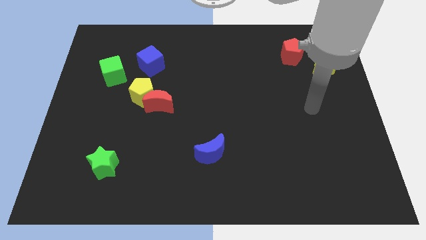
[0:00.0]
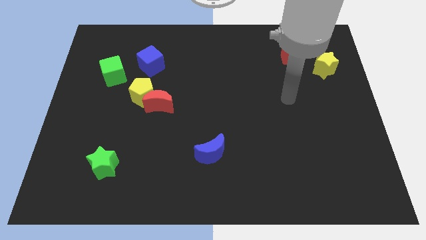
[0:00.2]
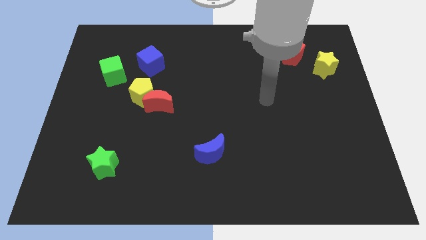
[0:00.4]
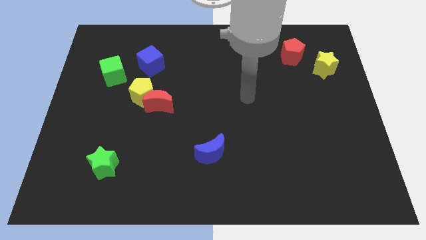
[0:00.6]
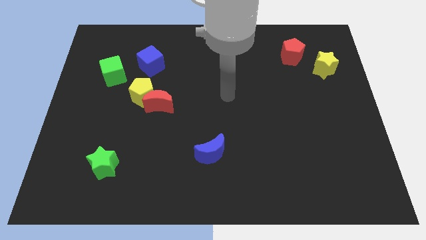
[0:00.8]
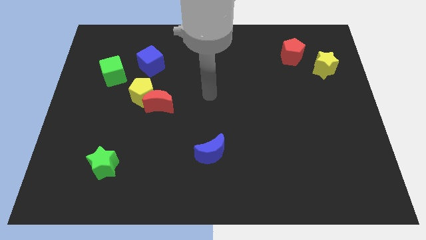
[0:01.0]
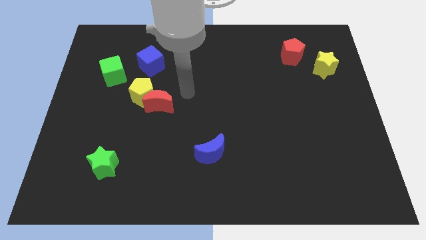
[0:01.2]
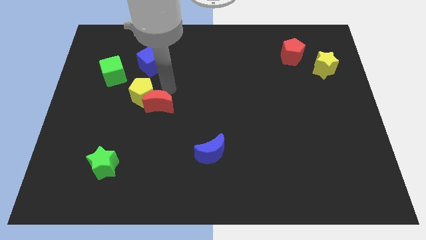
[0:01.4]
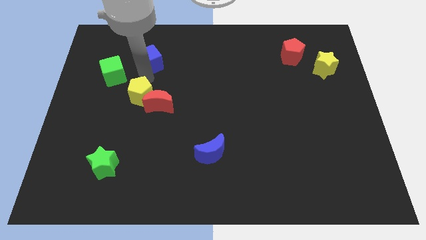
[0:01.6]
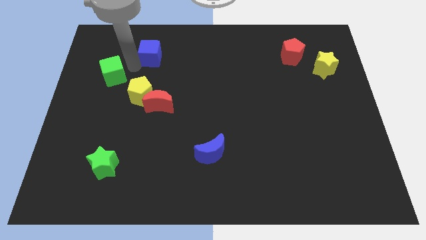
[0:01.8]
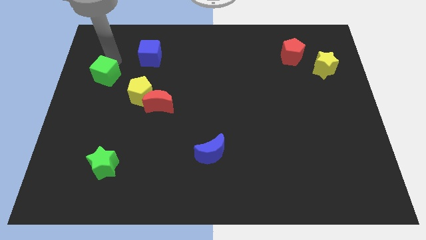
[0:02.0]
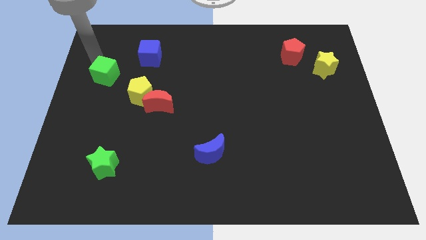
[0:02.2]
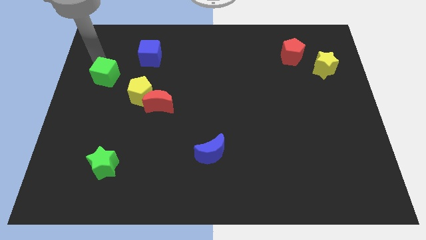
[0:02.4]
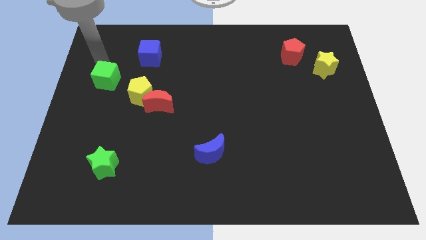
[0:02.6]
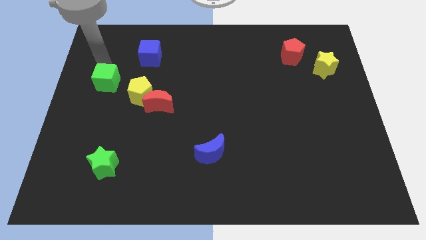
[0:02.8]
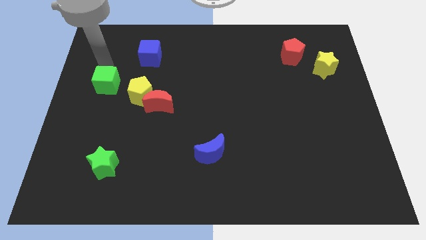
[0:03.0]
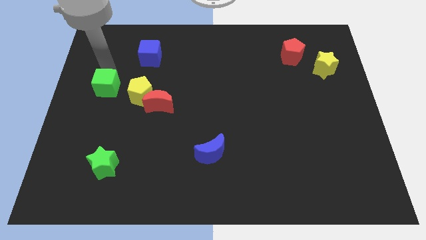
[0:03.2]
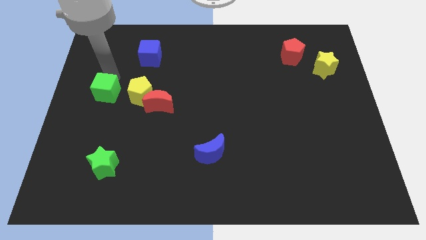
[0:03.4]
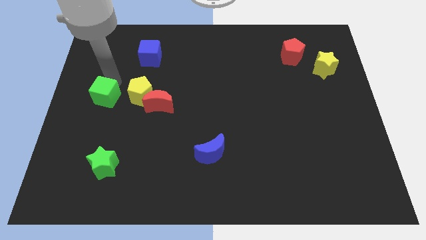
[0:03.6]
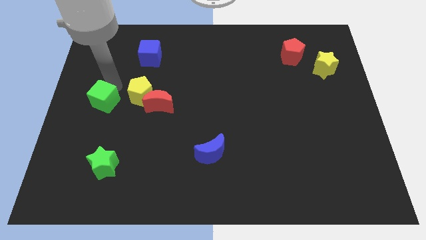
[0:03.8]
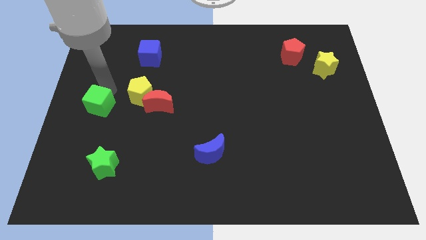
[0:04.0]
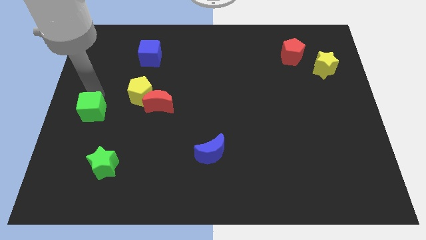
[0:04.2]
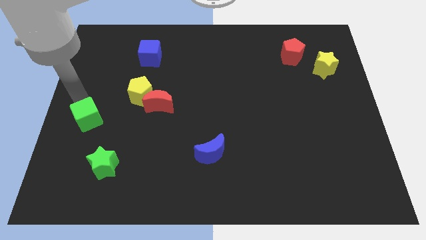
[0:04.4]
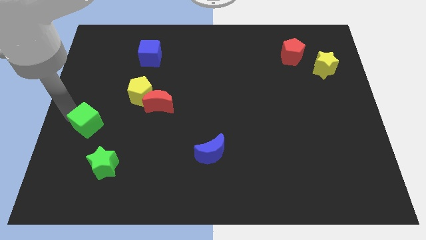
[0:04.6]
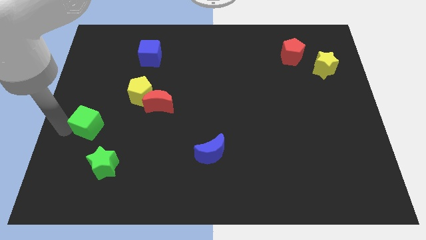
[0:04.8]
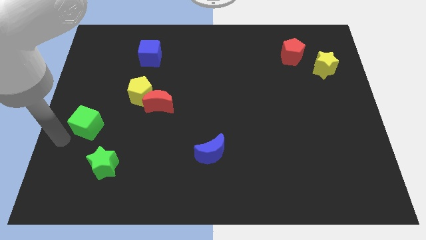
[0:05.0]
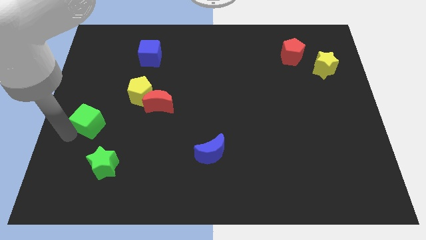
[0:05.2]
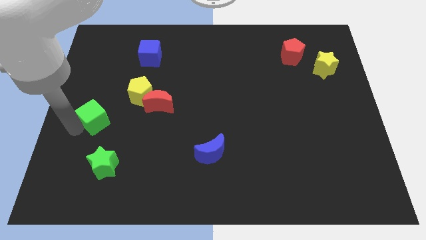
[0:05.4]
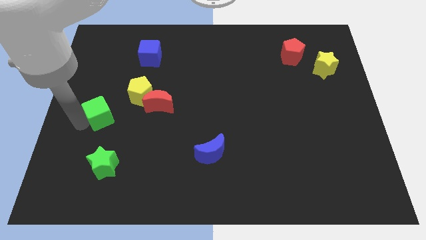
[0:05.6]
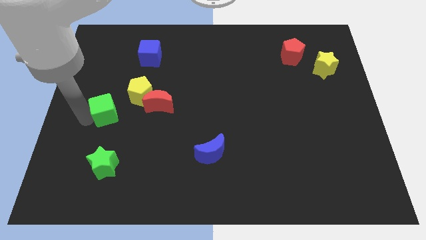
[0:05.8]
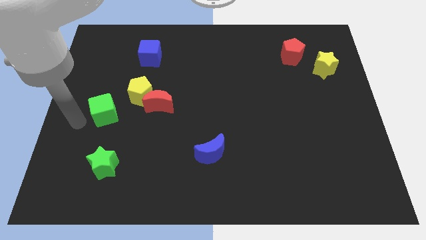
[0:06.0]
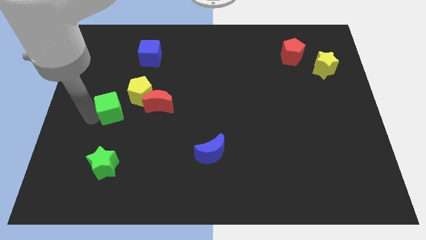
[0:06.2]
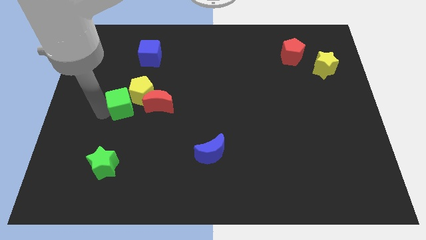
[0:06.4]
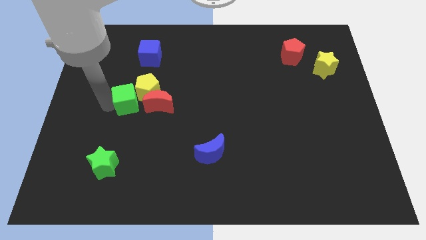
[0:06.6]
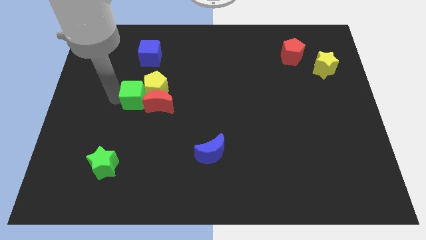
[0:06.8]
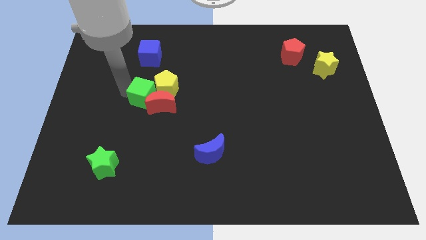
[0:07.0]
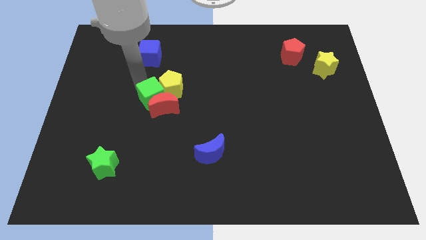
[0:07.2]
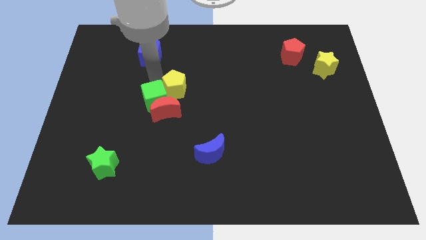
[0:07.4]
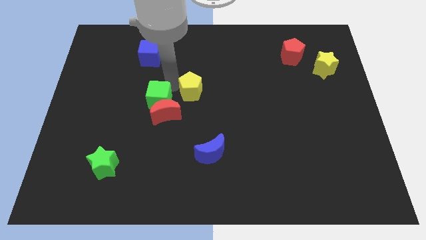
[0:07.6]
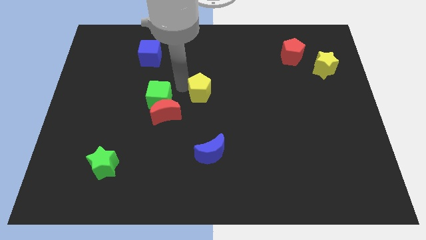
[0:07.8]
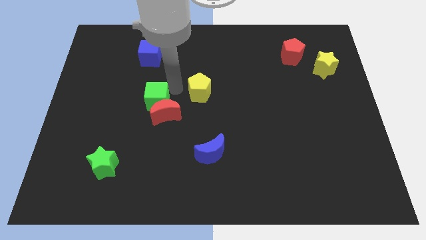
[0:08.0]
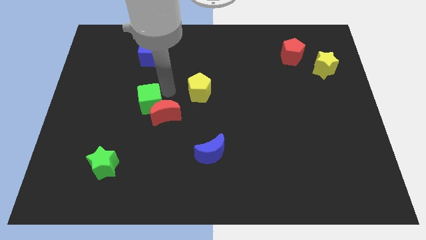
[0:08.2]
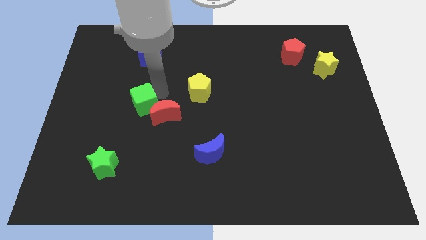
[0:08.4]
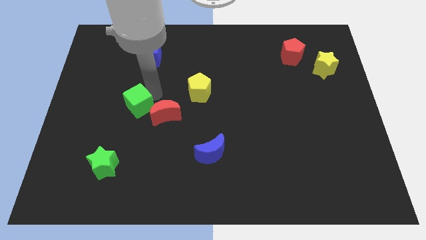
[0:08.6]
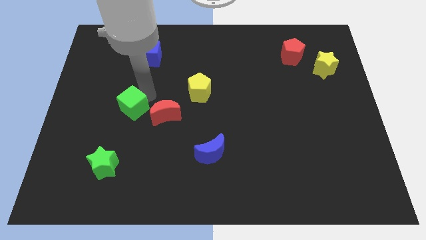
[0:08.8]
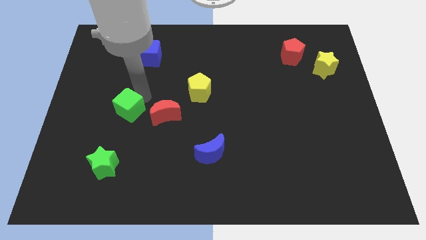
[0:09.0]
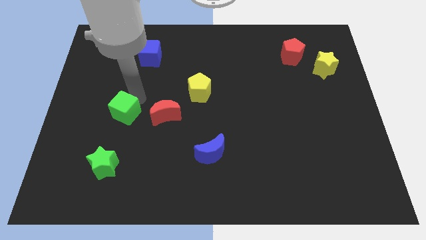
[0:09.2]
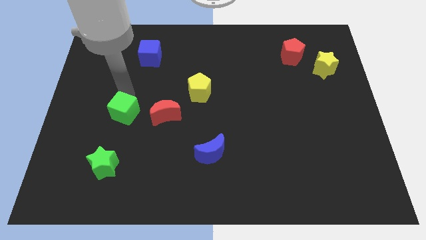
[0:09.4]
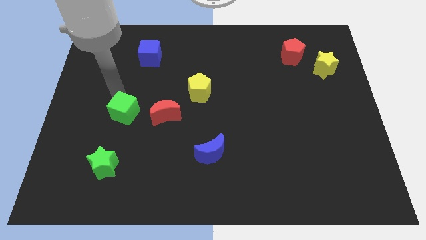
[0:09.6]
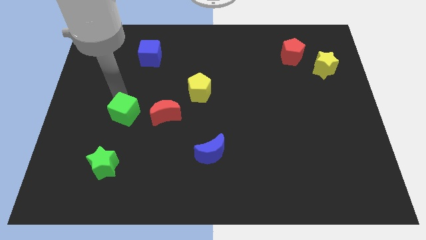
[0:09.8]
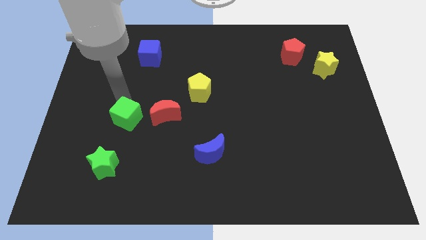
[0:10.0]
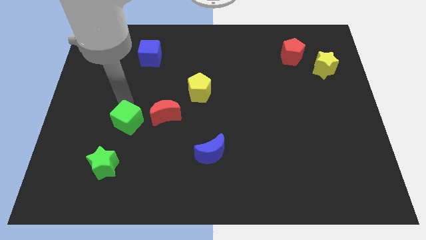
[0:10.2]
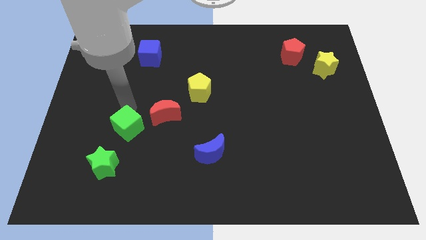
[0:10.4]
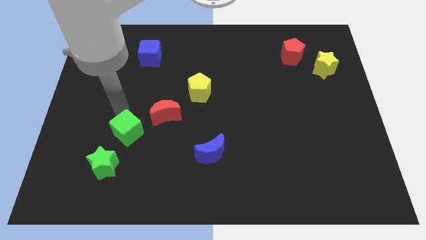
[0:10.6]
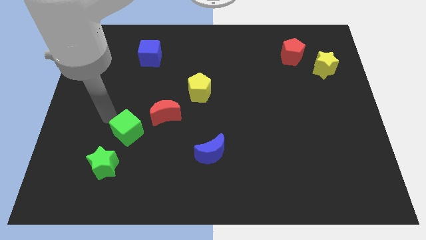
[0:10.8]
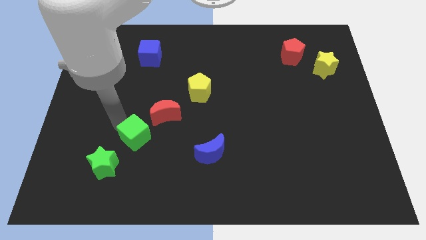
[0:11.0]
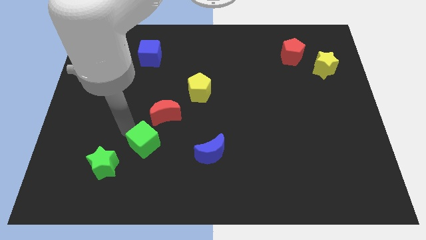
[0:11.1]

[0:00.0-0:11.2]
push the green cube below the red moon

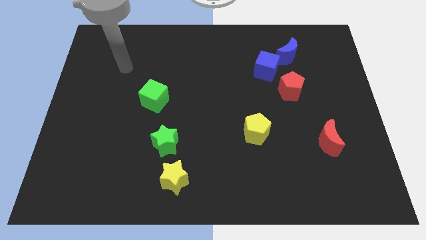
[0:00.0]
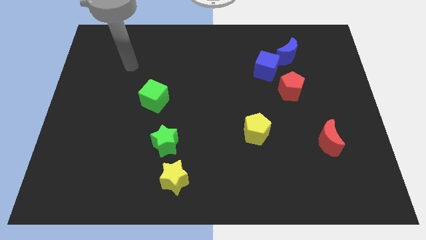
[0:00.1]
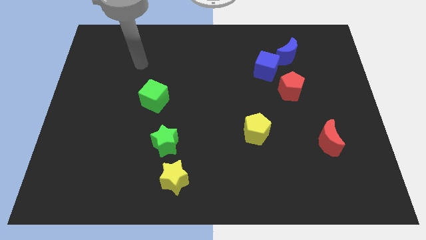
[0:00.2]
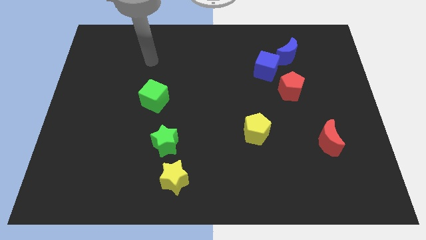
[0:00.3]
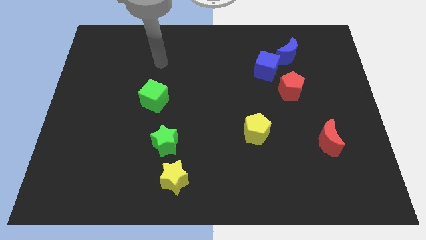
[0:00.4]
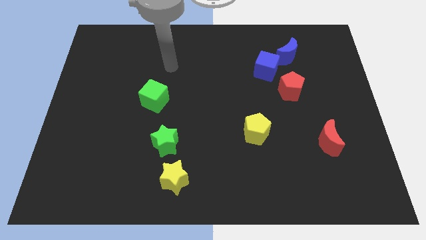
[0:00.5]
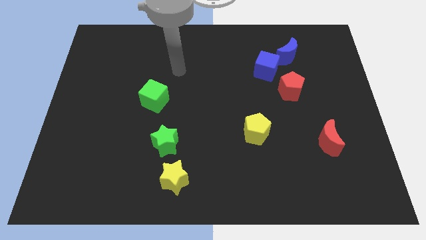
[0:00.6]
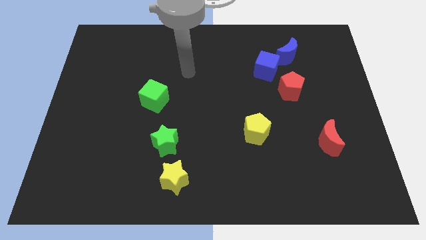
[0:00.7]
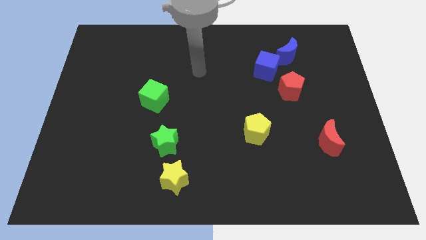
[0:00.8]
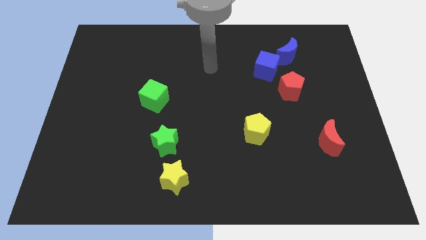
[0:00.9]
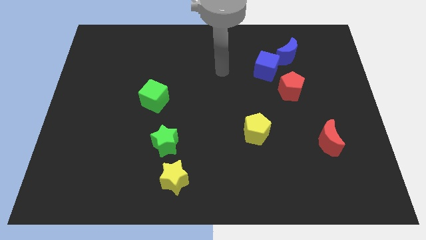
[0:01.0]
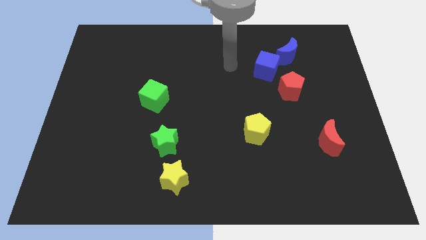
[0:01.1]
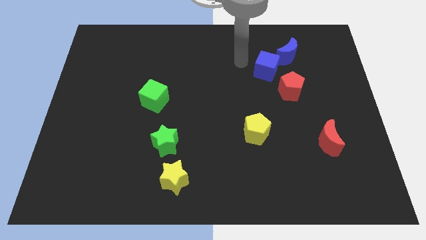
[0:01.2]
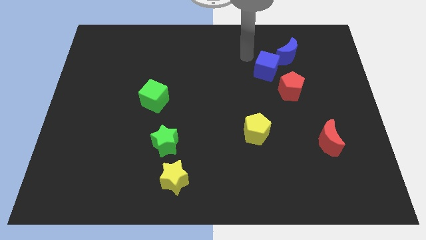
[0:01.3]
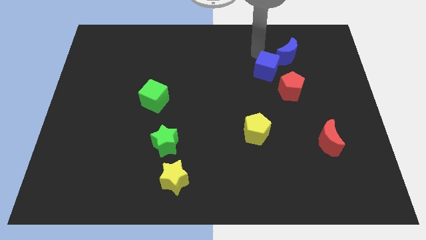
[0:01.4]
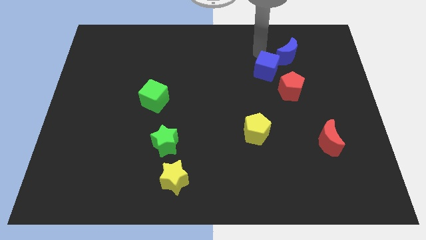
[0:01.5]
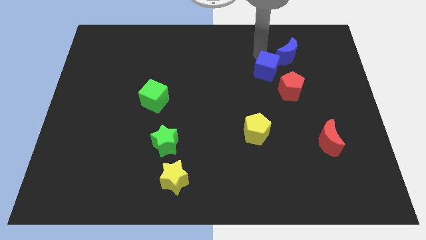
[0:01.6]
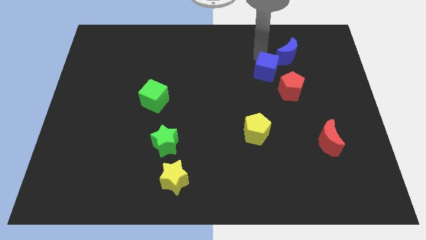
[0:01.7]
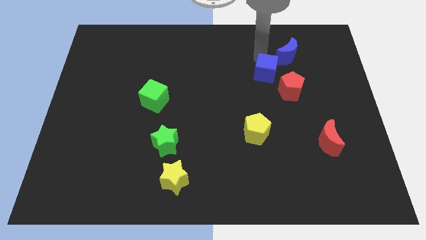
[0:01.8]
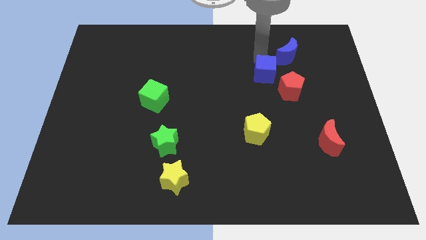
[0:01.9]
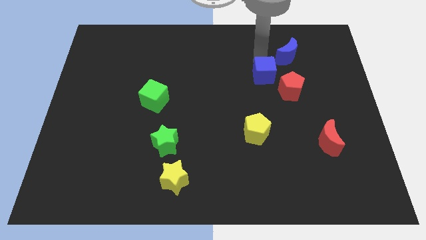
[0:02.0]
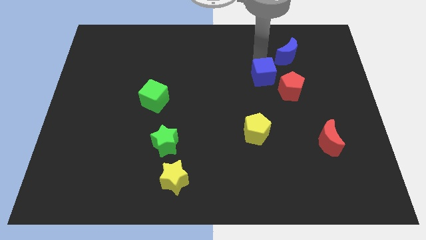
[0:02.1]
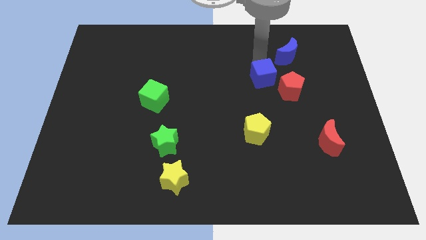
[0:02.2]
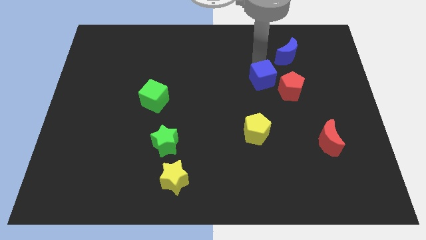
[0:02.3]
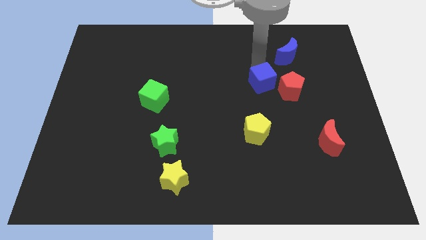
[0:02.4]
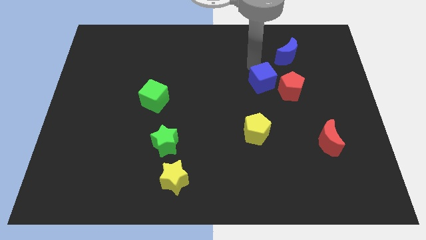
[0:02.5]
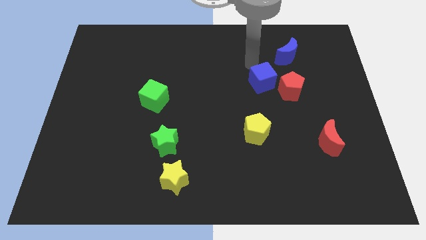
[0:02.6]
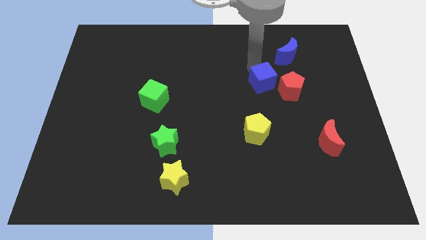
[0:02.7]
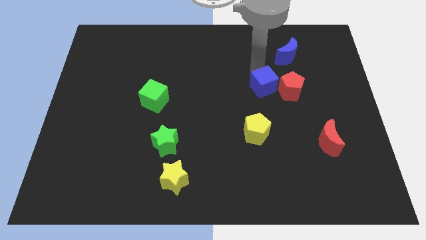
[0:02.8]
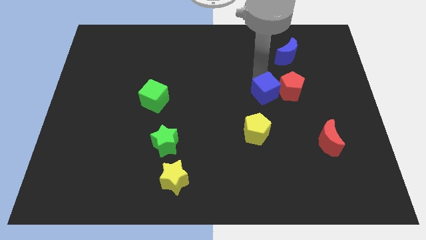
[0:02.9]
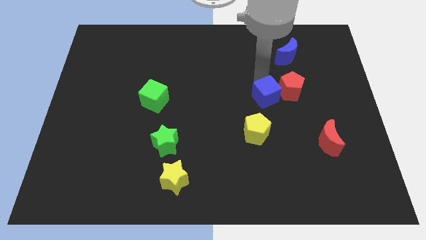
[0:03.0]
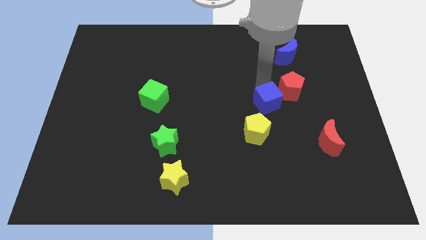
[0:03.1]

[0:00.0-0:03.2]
put the blue cube to the top right of the yellow pentagon
